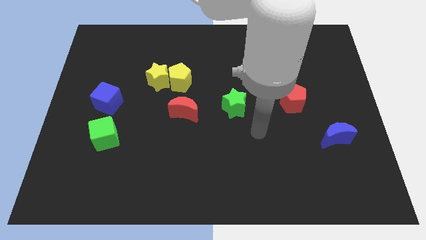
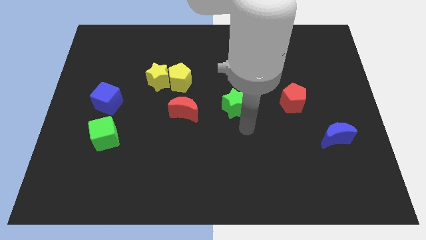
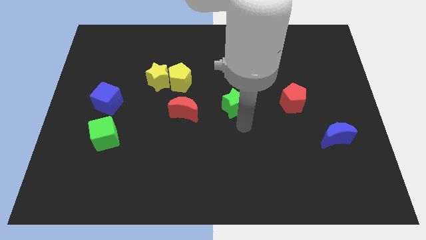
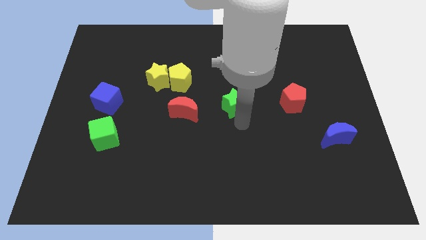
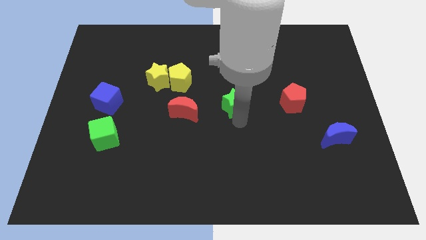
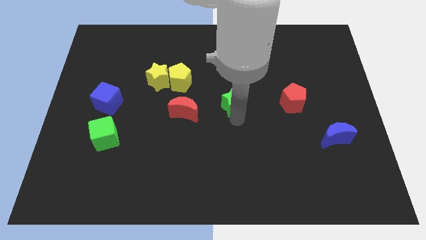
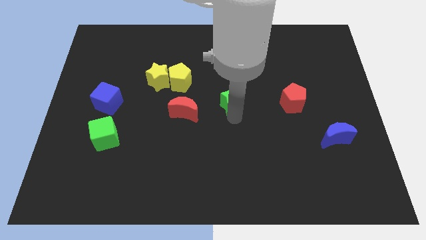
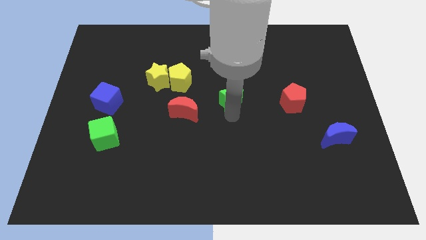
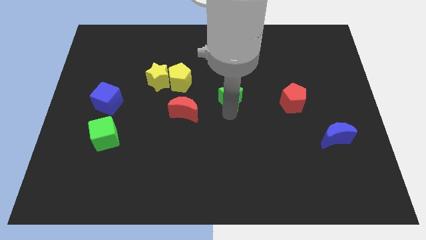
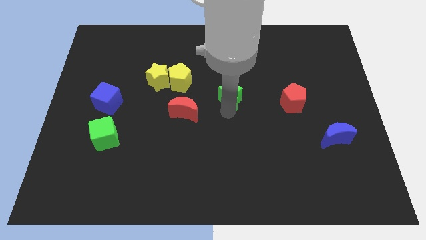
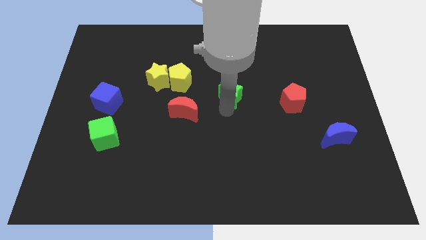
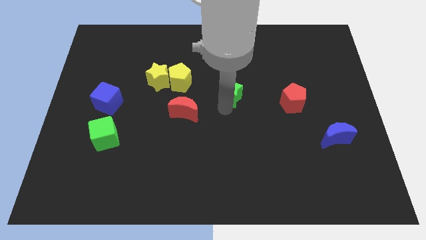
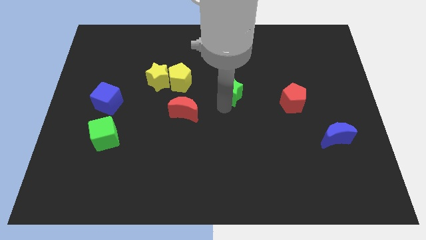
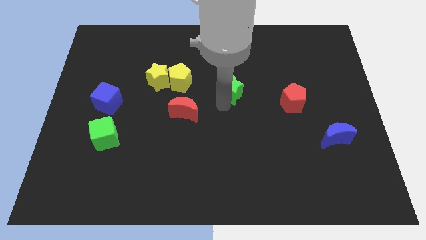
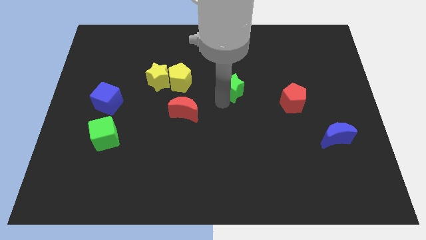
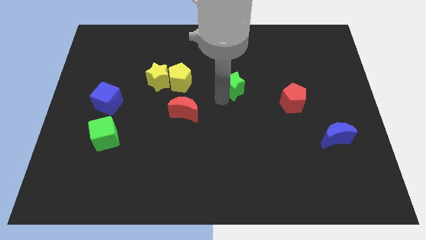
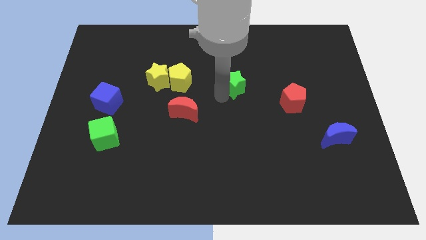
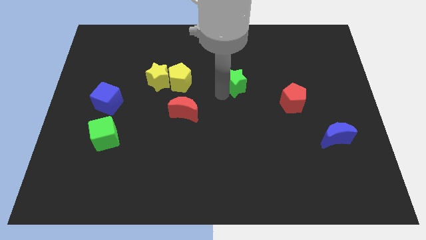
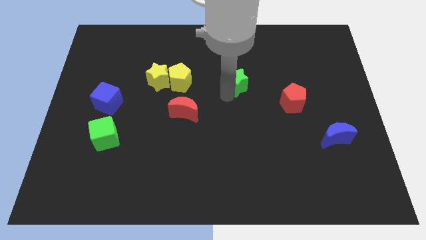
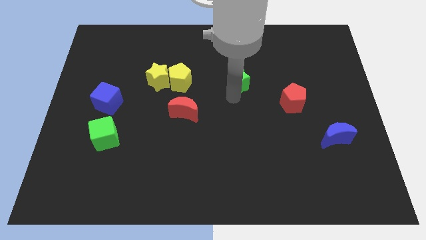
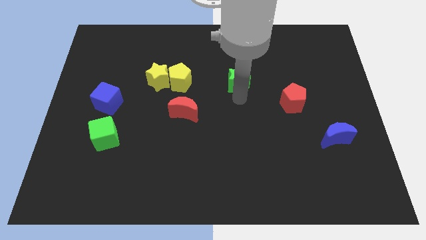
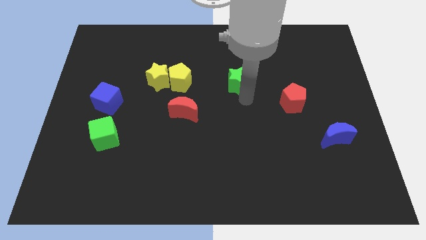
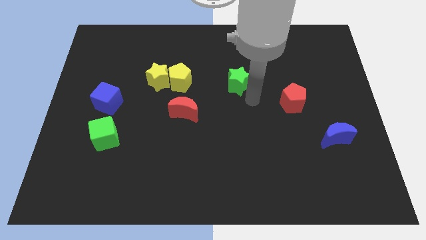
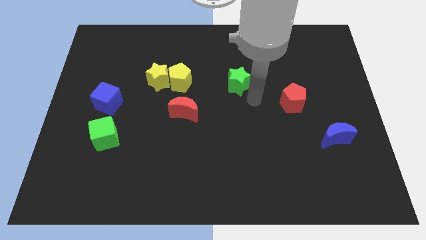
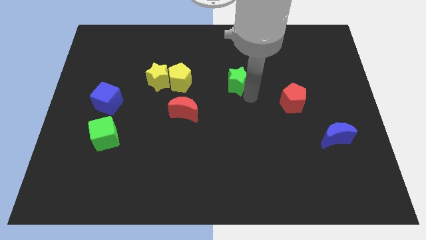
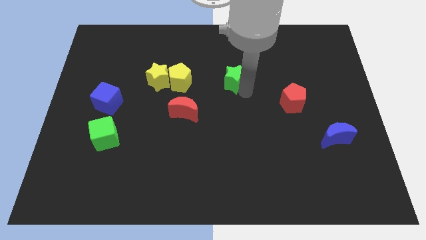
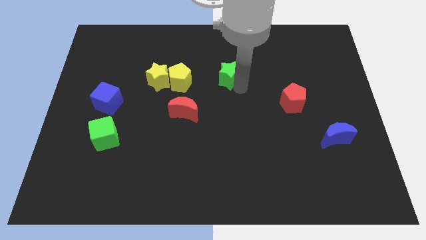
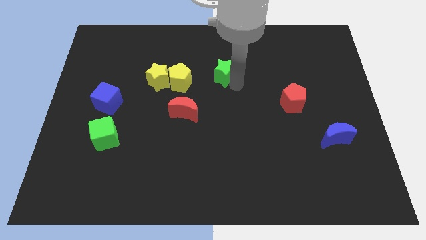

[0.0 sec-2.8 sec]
move the green star upwards and to the left diagonally a bit

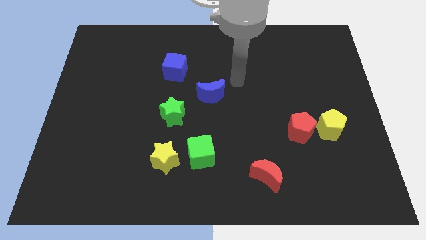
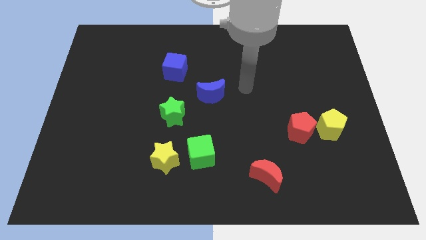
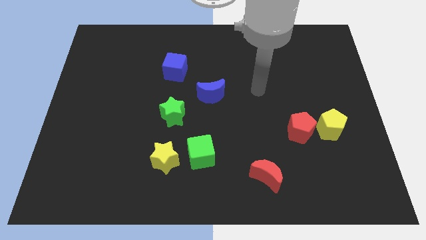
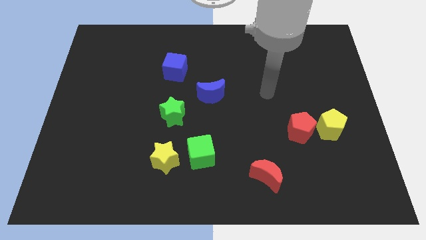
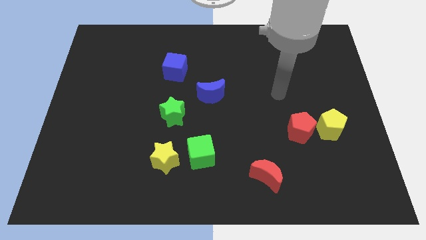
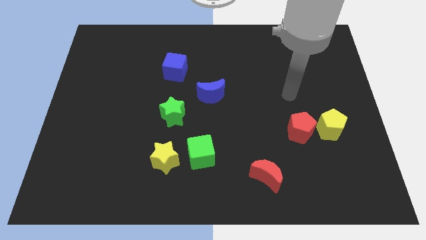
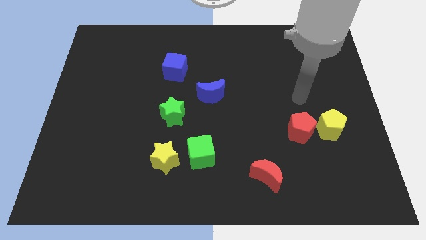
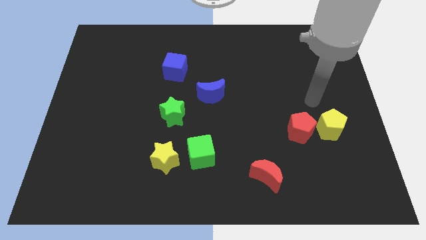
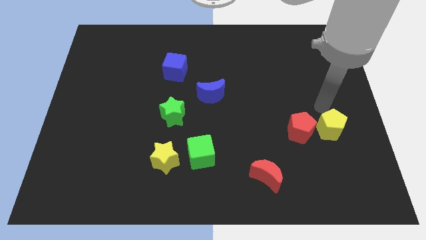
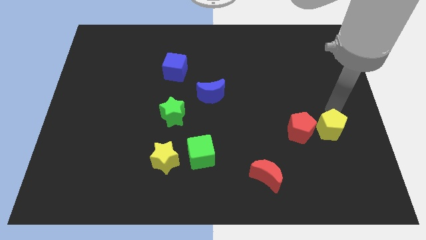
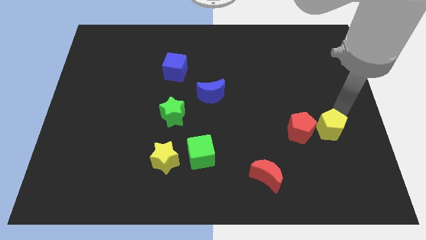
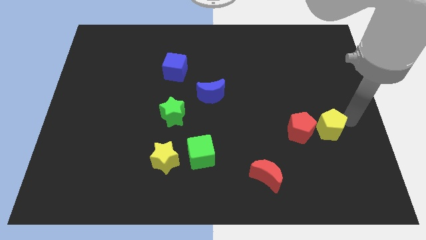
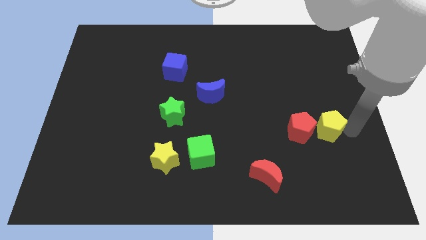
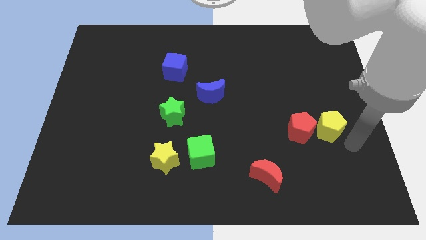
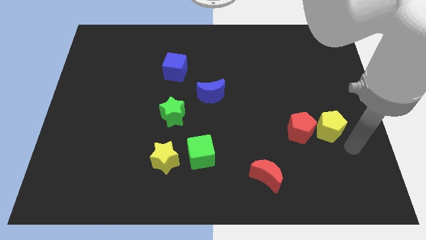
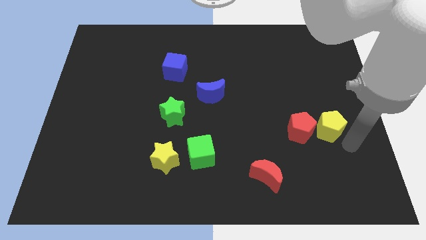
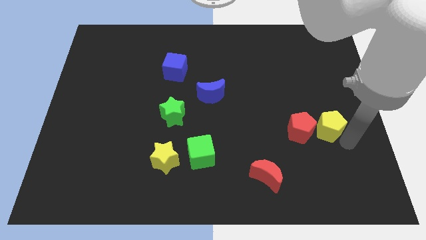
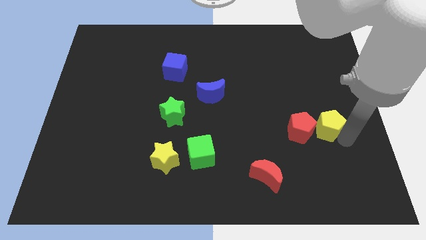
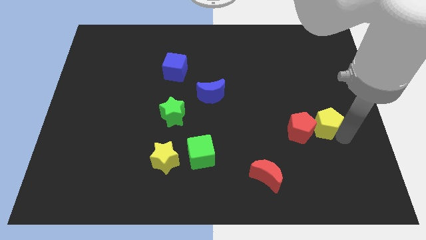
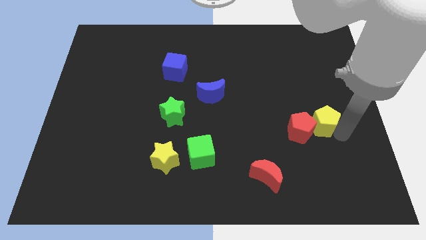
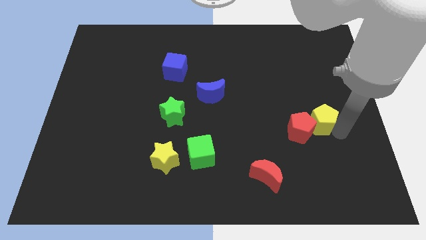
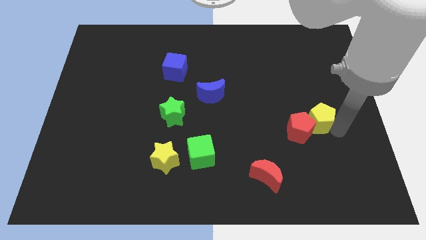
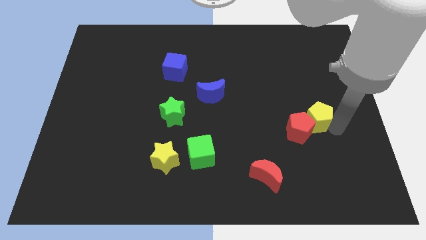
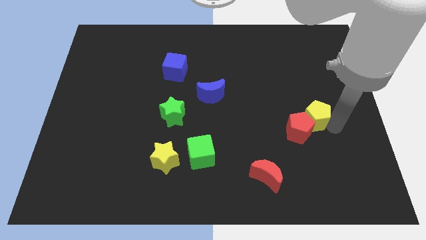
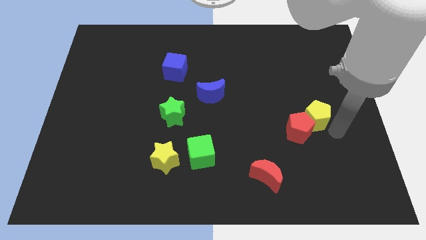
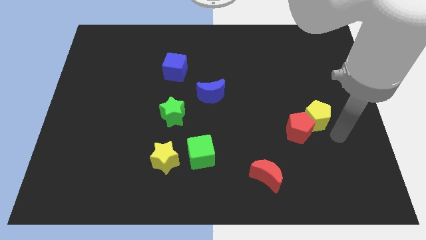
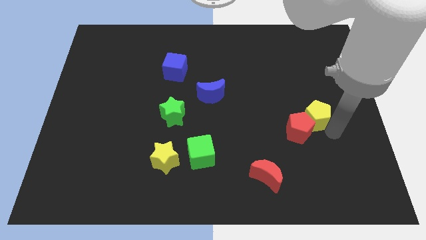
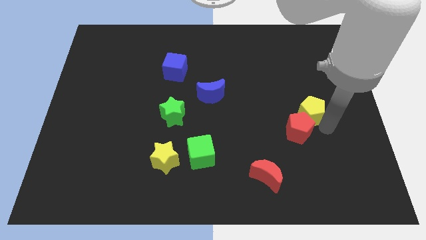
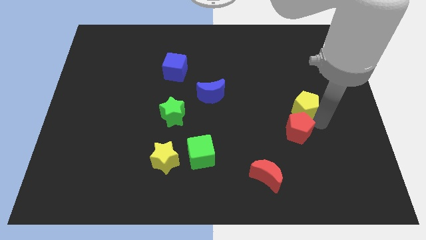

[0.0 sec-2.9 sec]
slightly move the yellow pentagon diagonally upwards and to the left

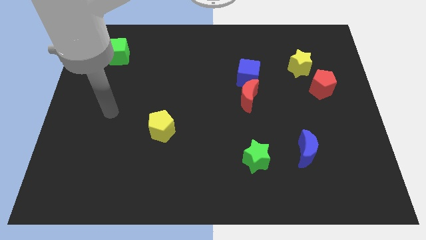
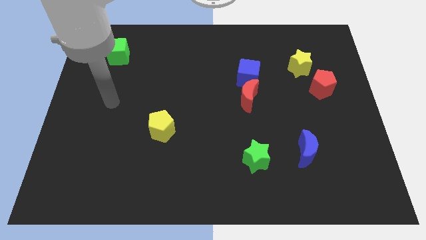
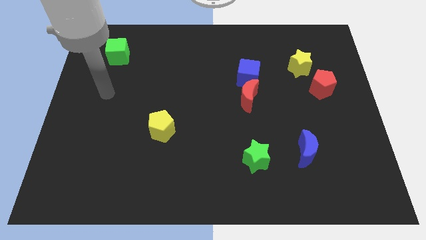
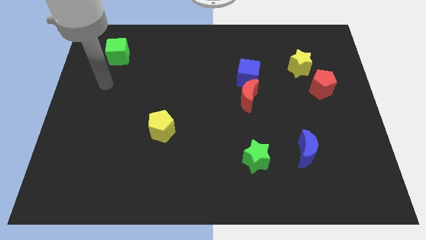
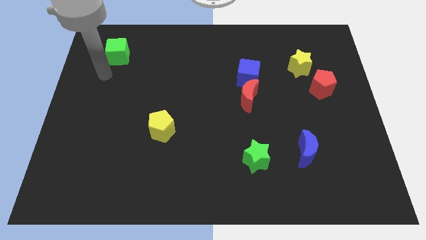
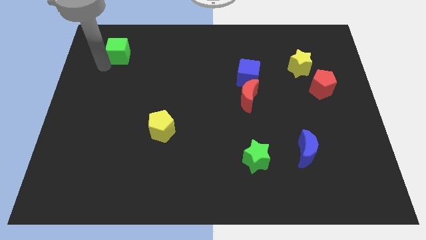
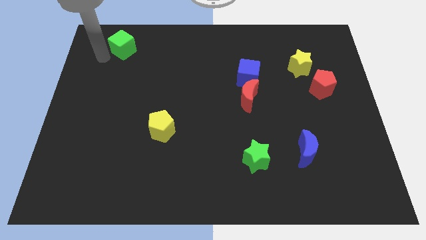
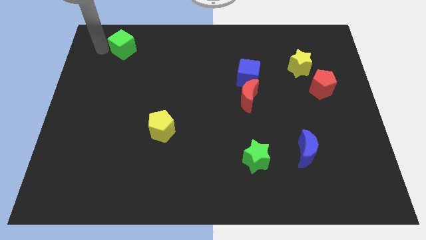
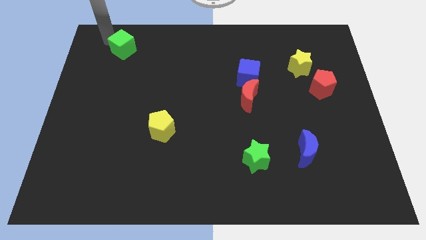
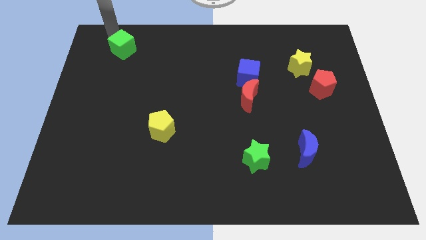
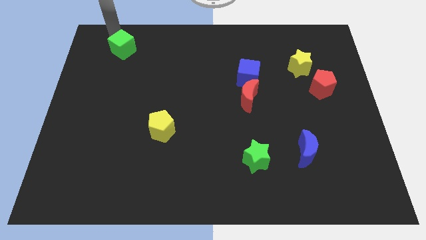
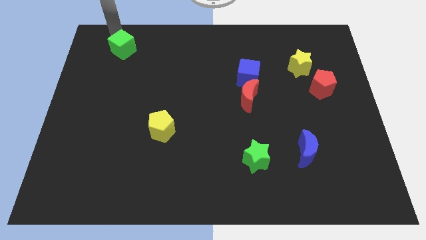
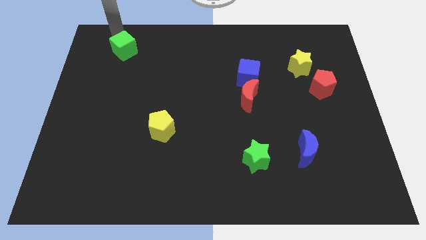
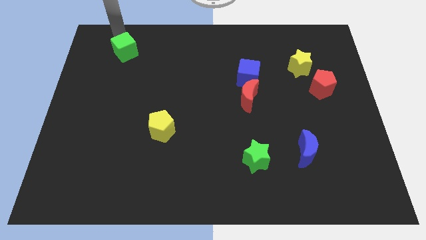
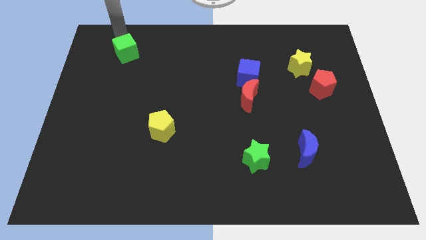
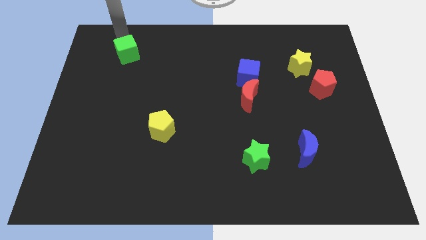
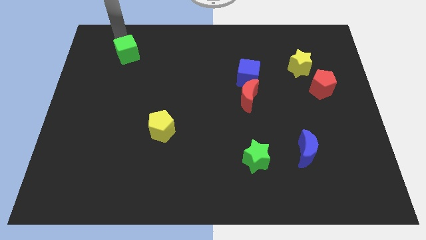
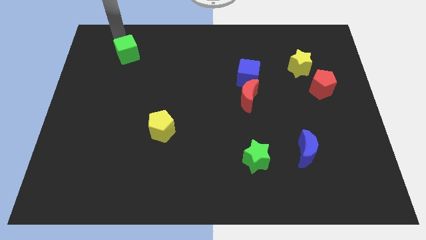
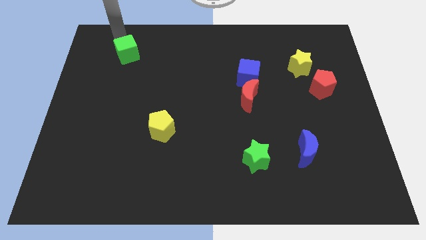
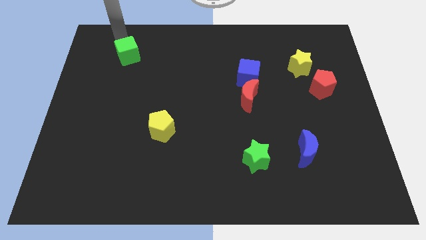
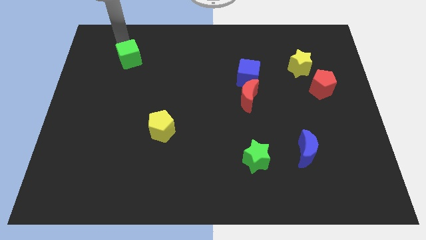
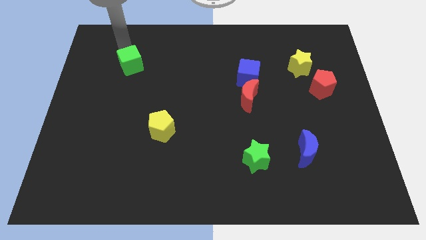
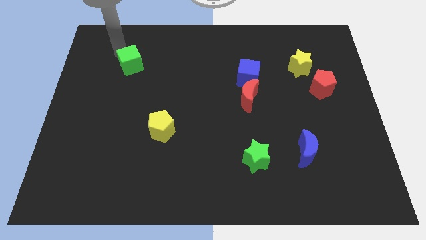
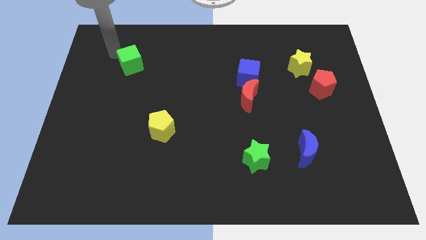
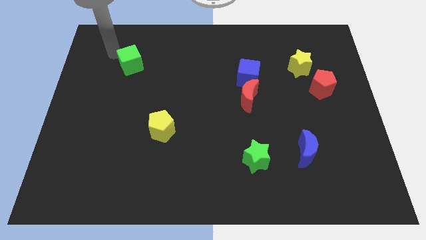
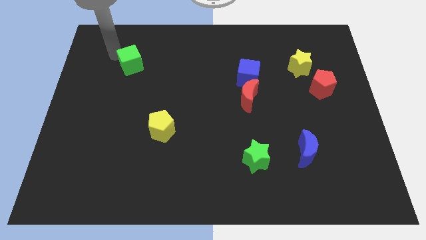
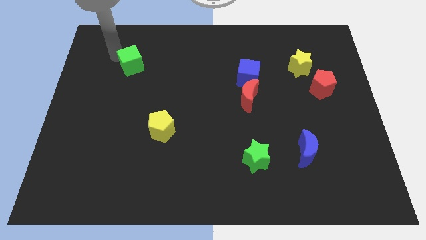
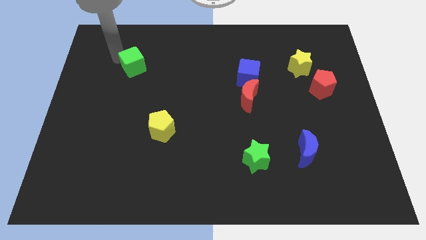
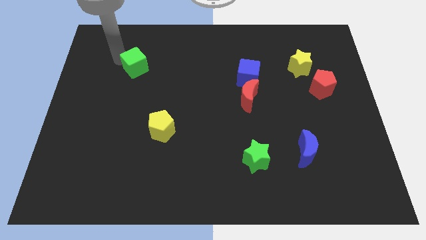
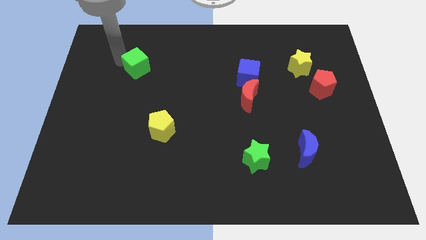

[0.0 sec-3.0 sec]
move the green cube downwards and then to the right somewhat
